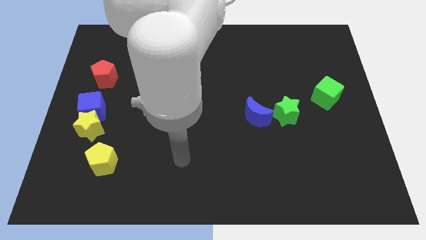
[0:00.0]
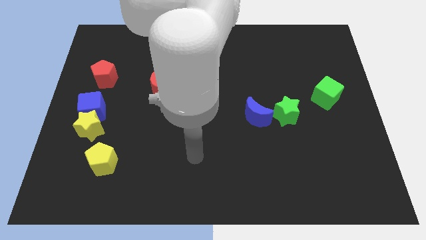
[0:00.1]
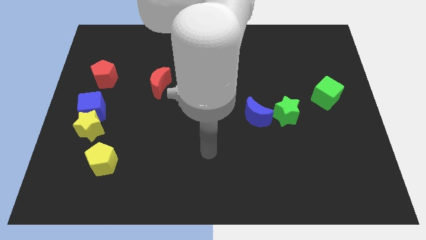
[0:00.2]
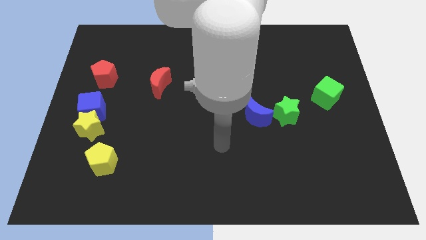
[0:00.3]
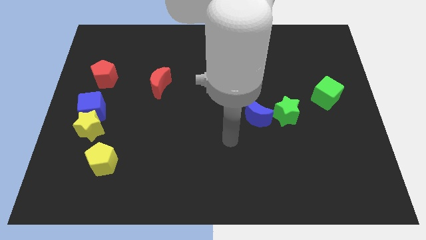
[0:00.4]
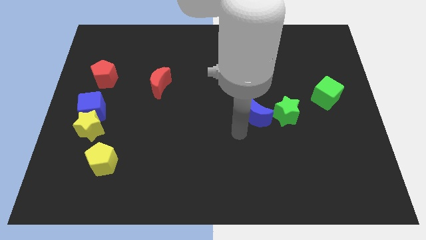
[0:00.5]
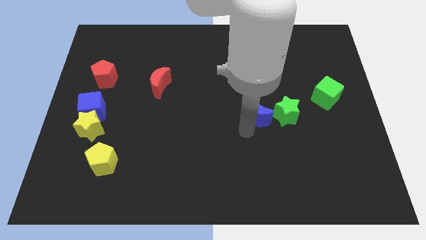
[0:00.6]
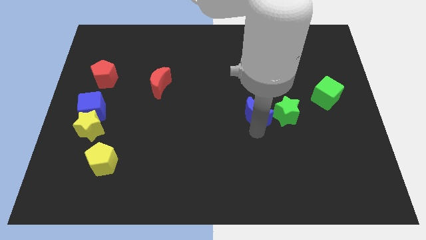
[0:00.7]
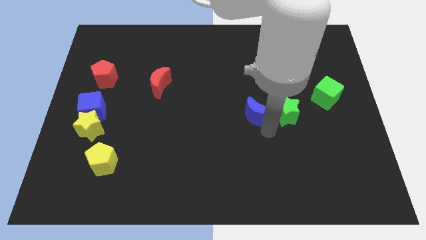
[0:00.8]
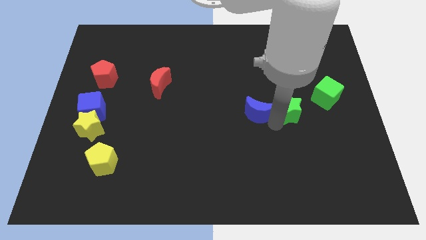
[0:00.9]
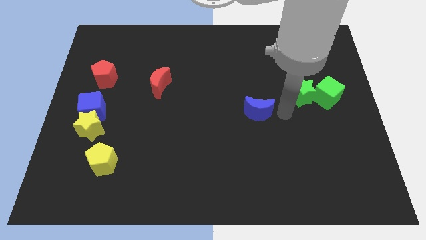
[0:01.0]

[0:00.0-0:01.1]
separate the blue moon from the green star

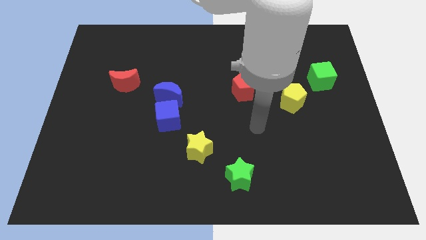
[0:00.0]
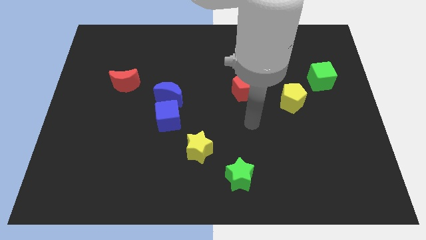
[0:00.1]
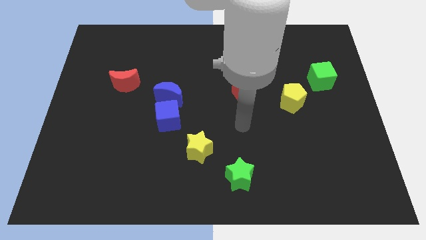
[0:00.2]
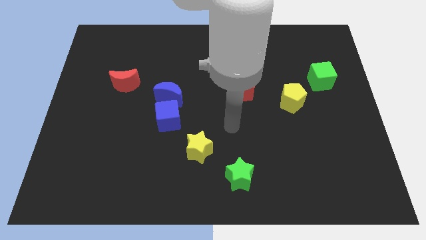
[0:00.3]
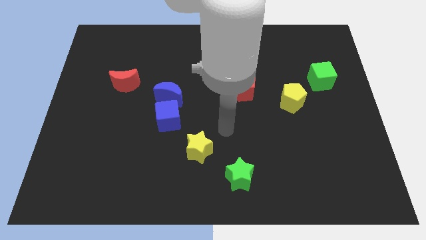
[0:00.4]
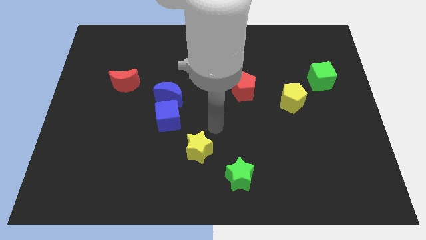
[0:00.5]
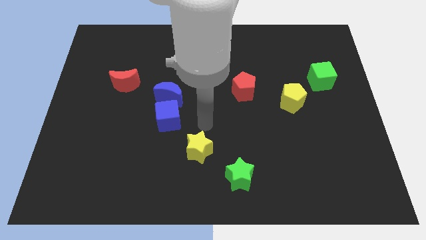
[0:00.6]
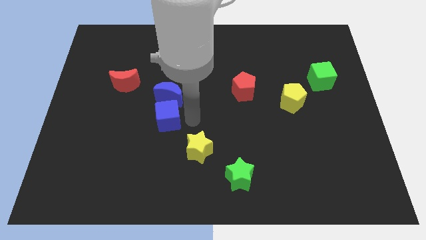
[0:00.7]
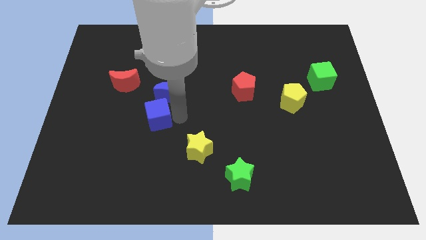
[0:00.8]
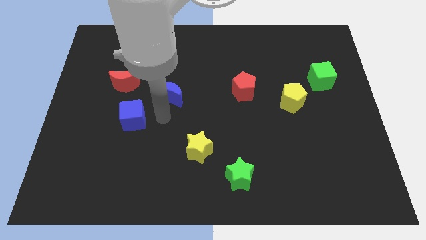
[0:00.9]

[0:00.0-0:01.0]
separate the blue moon from the blue cube

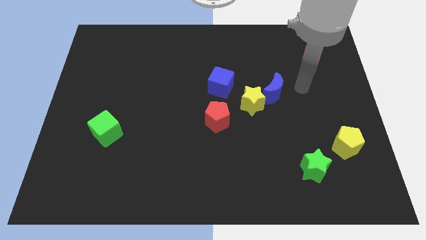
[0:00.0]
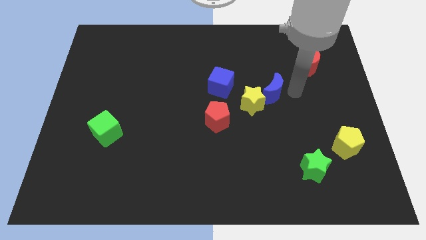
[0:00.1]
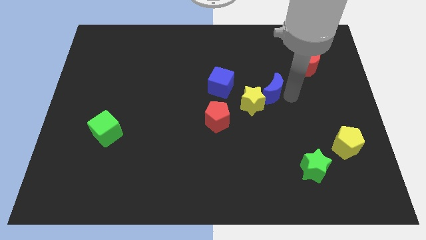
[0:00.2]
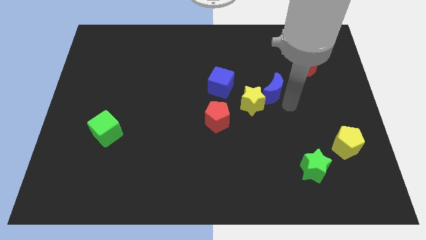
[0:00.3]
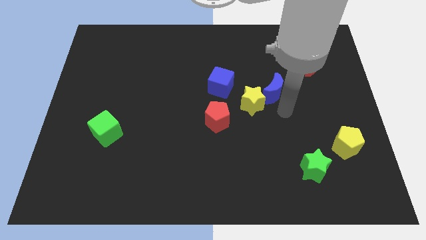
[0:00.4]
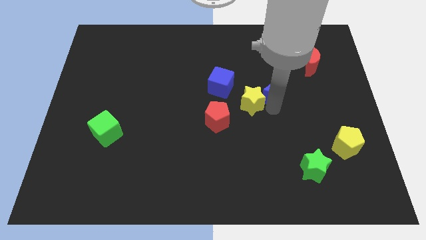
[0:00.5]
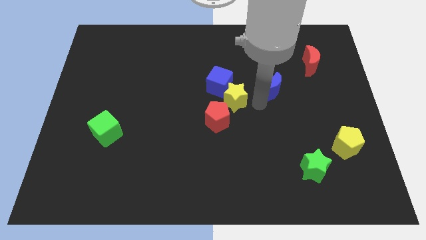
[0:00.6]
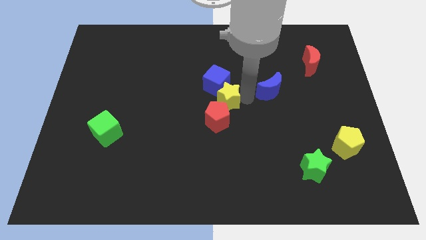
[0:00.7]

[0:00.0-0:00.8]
move the blue moon away from the yellow star

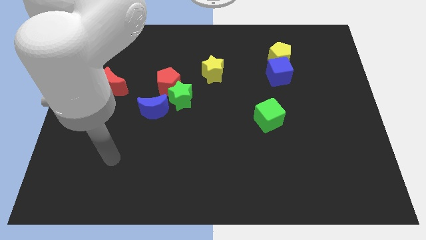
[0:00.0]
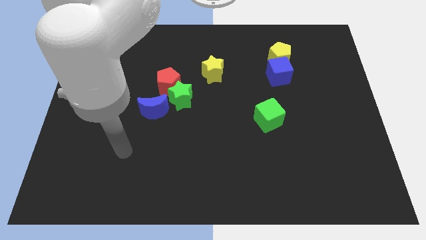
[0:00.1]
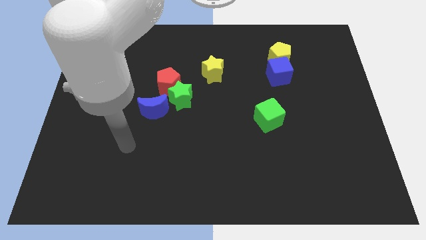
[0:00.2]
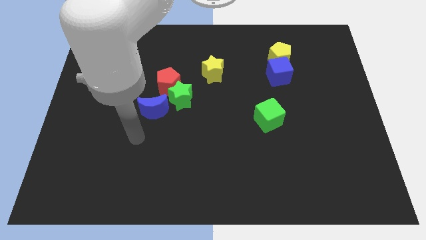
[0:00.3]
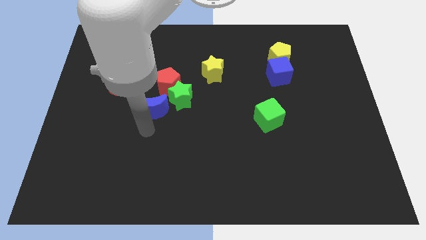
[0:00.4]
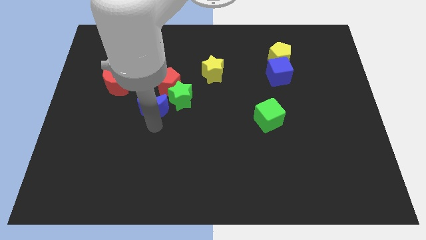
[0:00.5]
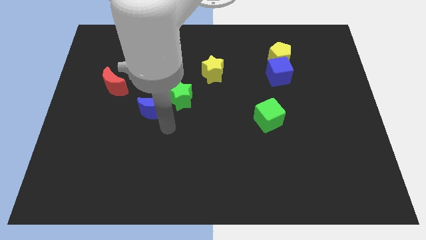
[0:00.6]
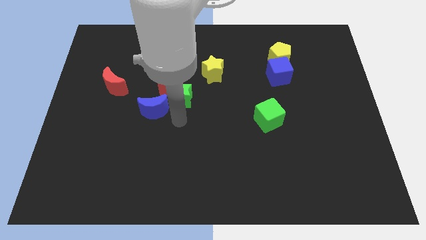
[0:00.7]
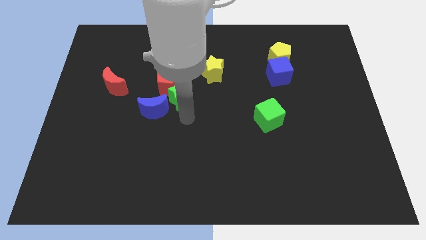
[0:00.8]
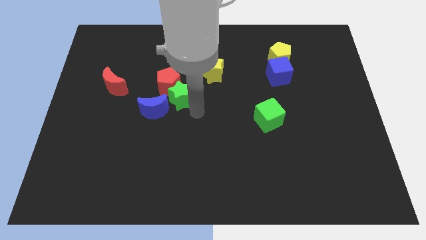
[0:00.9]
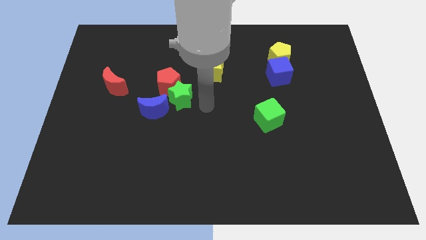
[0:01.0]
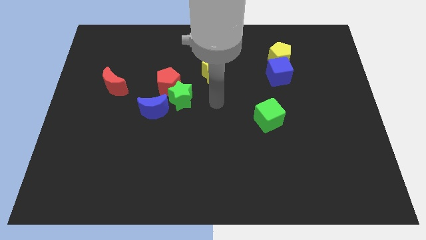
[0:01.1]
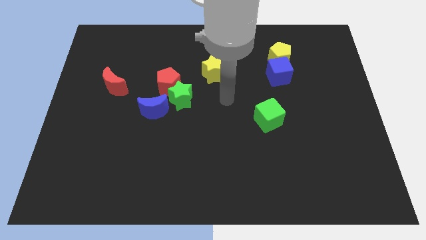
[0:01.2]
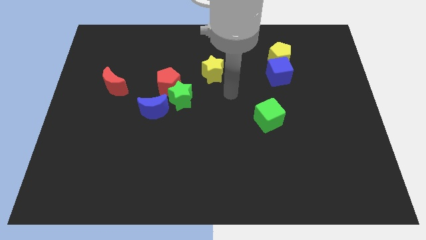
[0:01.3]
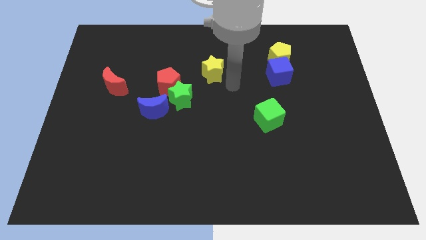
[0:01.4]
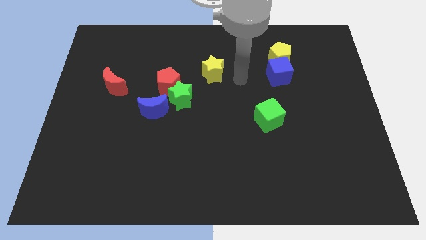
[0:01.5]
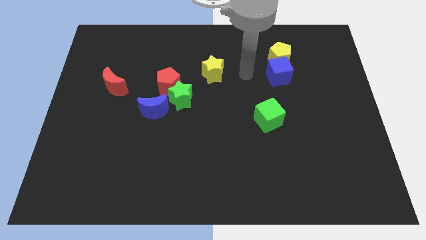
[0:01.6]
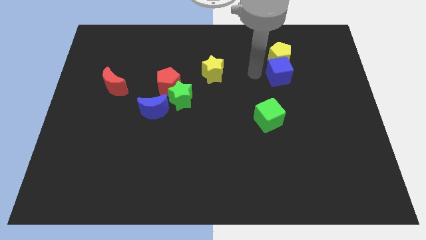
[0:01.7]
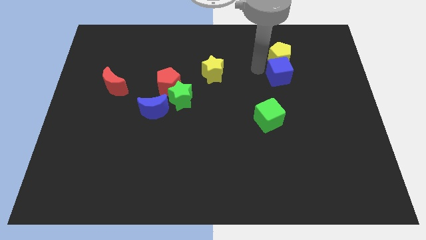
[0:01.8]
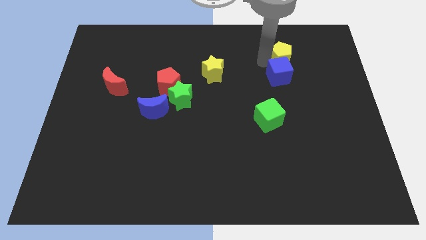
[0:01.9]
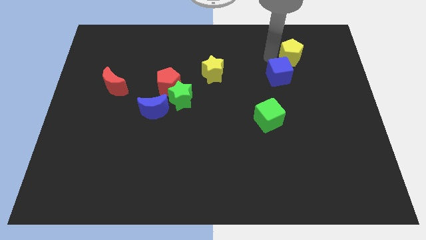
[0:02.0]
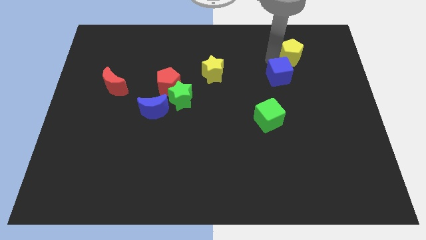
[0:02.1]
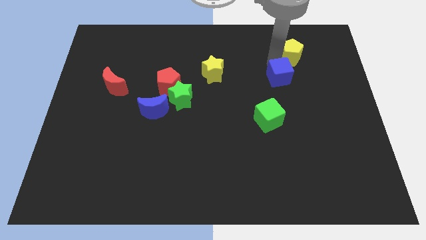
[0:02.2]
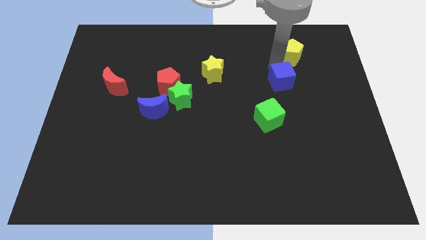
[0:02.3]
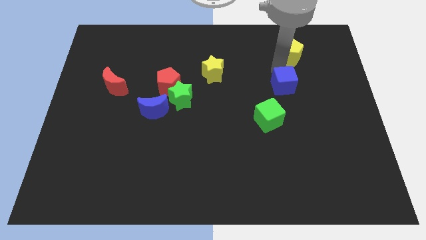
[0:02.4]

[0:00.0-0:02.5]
separate the blue cube from the yellow pentagon

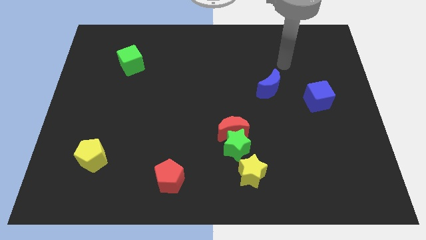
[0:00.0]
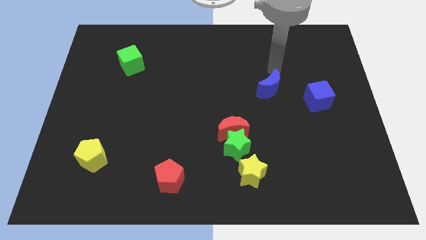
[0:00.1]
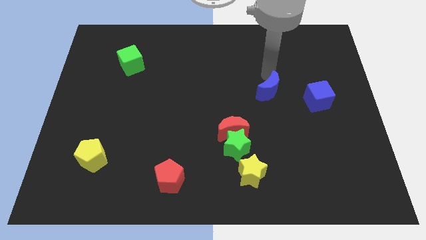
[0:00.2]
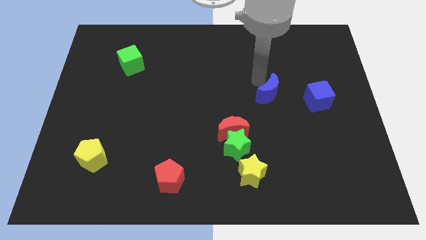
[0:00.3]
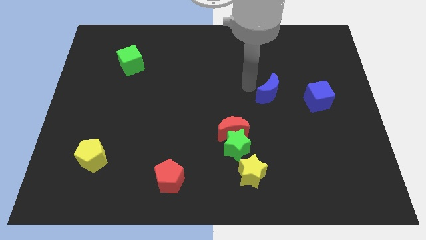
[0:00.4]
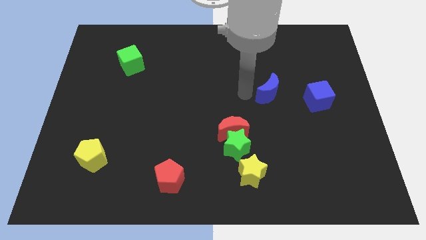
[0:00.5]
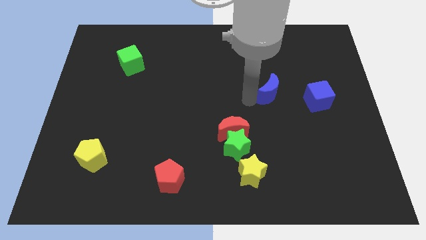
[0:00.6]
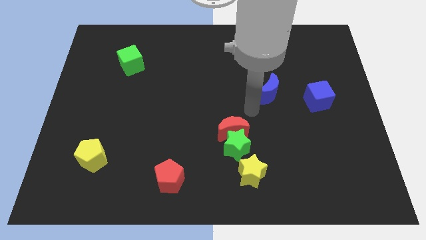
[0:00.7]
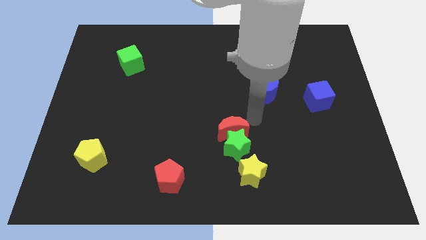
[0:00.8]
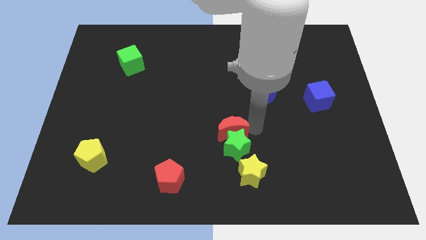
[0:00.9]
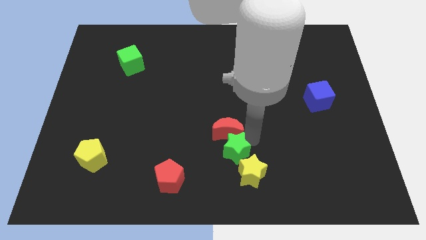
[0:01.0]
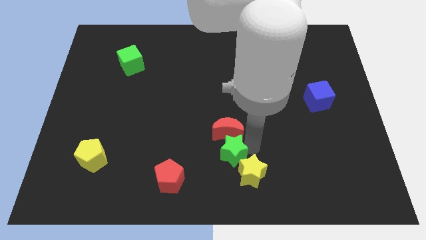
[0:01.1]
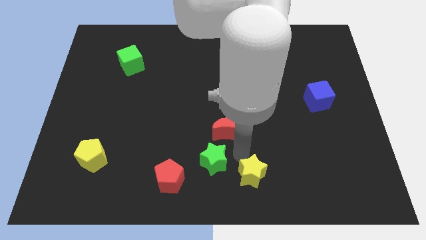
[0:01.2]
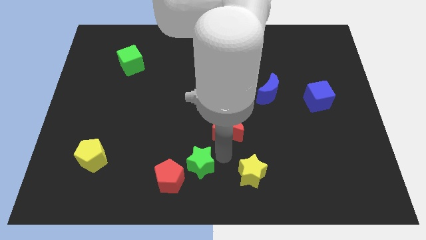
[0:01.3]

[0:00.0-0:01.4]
separate the red moon from the green star

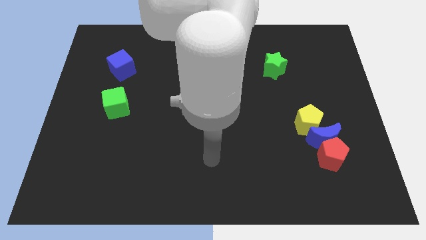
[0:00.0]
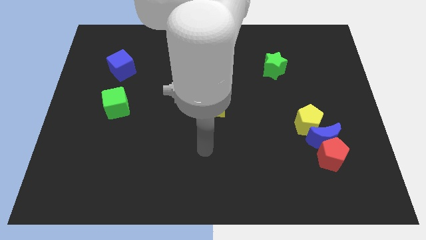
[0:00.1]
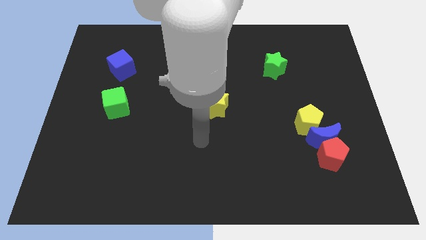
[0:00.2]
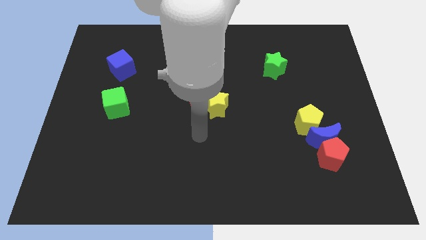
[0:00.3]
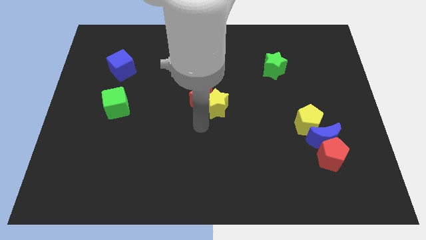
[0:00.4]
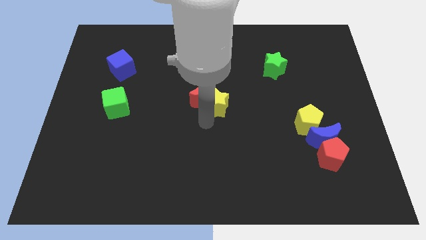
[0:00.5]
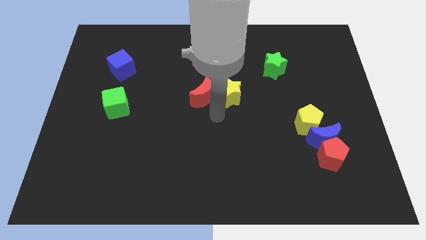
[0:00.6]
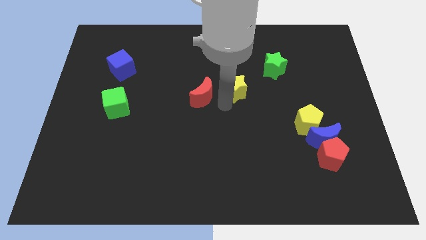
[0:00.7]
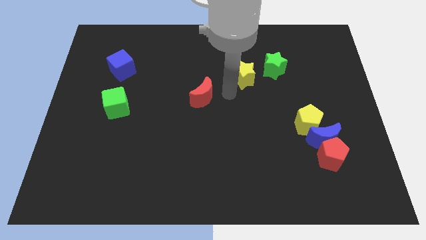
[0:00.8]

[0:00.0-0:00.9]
move the red moon away from the yellow star

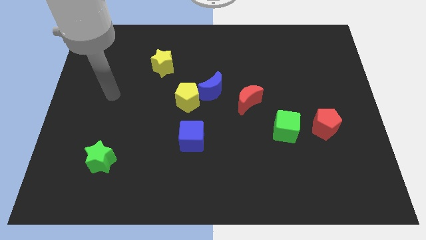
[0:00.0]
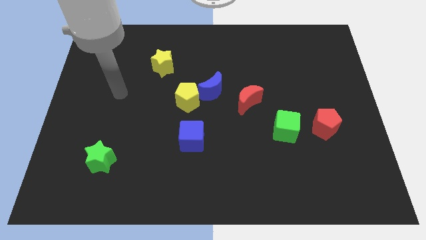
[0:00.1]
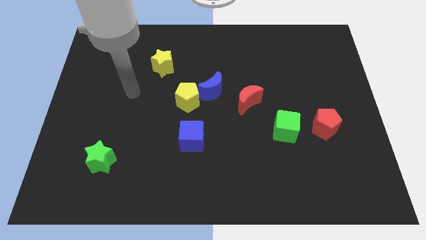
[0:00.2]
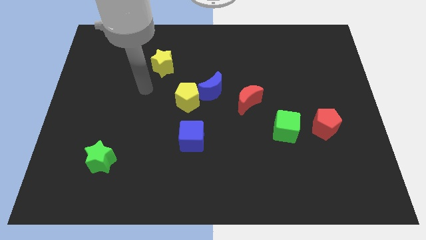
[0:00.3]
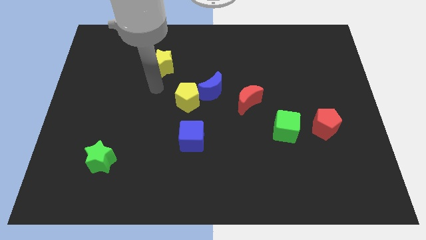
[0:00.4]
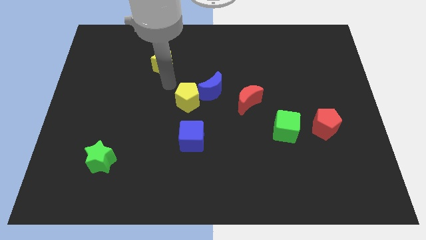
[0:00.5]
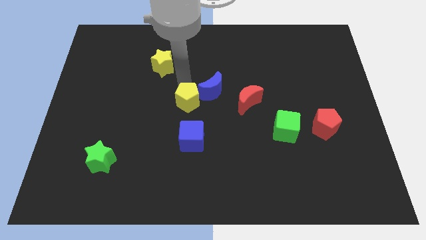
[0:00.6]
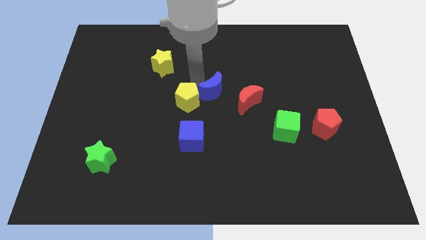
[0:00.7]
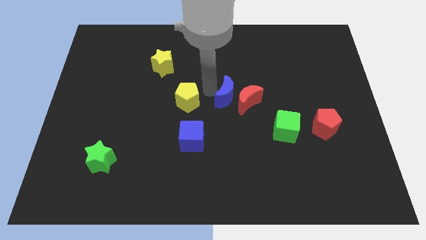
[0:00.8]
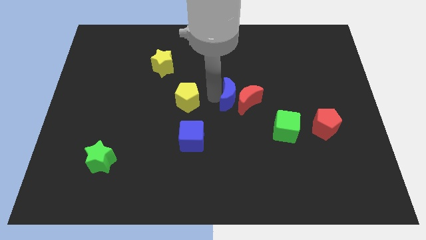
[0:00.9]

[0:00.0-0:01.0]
separate the yellow pentagon from the blue moon

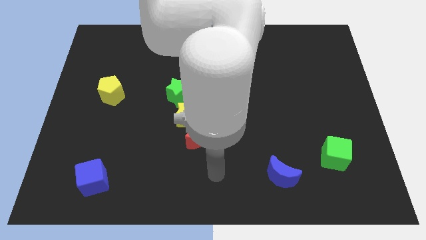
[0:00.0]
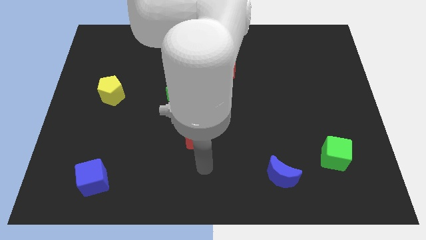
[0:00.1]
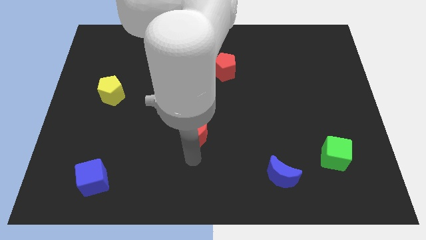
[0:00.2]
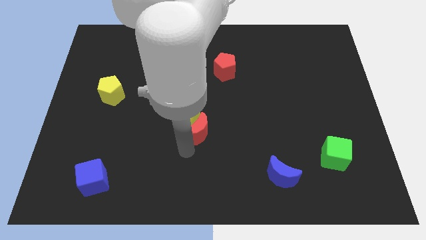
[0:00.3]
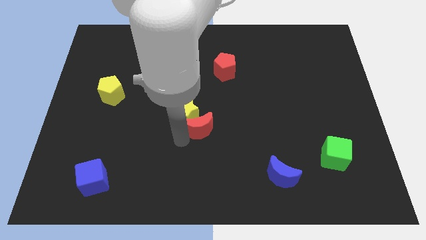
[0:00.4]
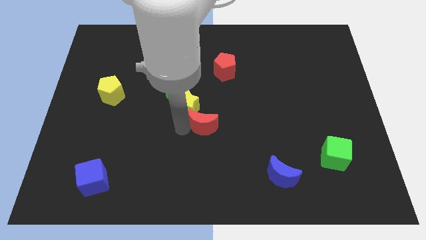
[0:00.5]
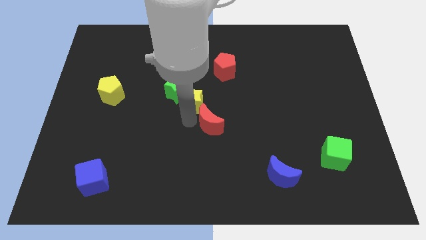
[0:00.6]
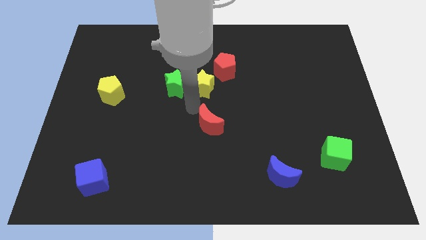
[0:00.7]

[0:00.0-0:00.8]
pull the red moon apart from the yellow star
